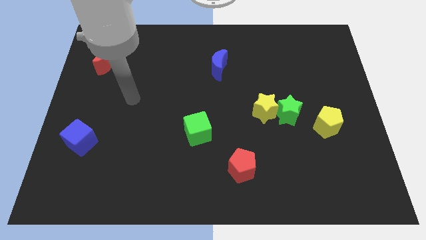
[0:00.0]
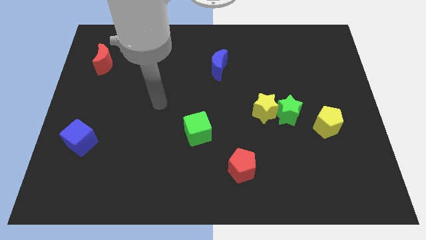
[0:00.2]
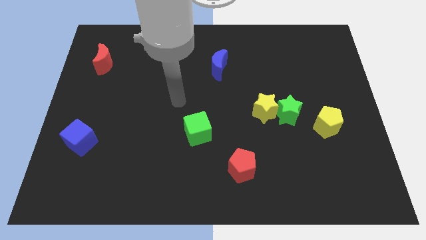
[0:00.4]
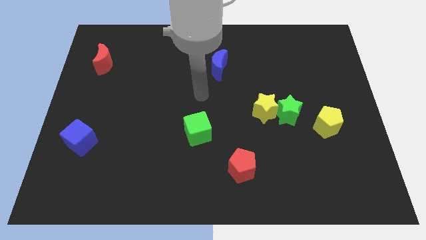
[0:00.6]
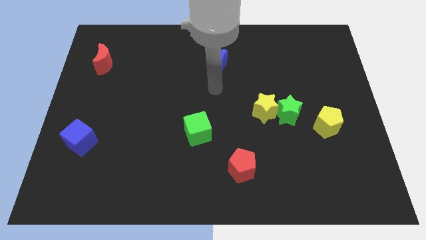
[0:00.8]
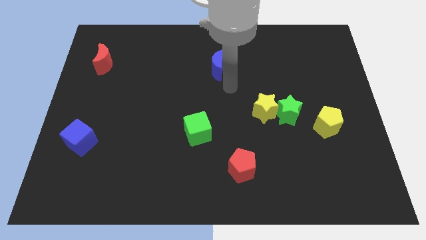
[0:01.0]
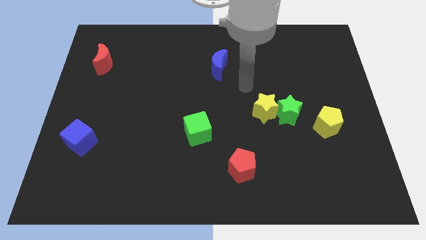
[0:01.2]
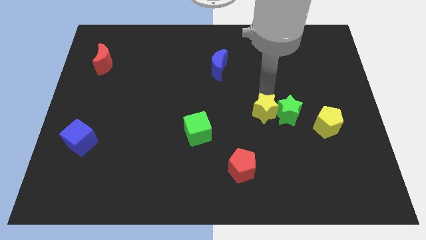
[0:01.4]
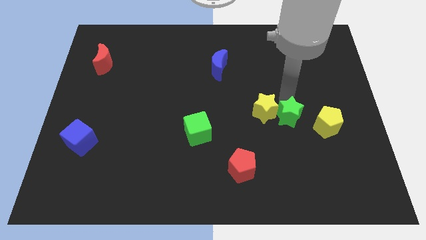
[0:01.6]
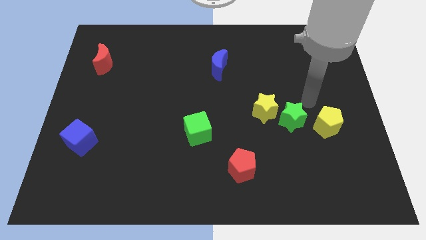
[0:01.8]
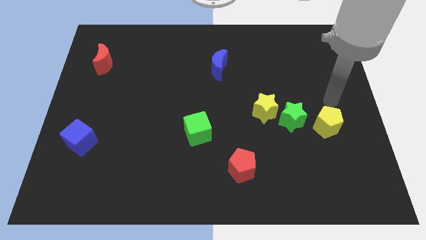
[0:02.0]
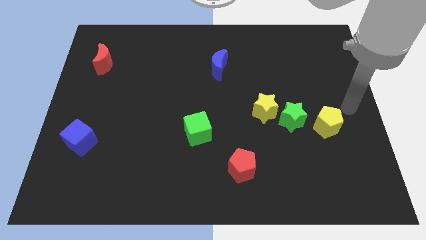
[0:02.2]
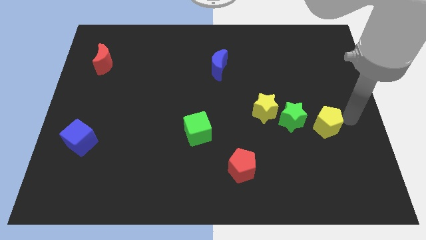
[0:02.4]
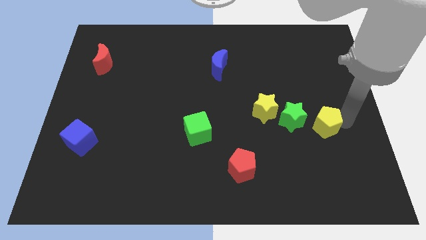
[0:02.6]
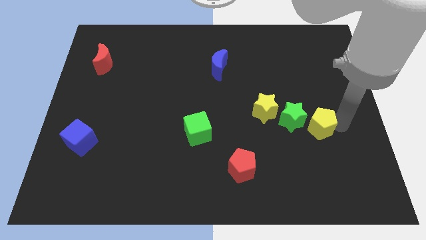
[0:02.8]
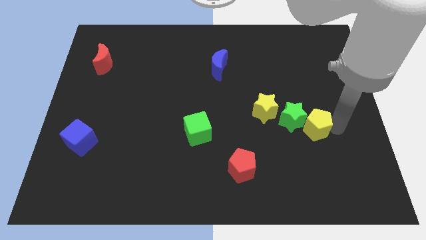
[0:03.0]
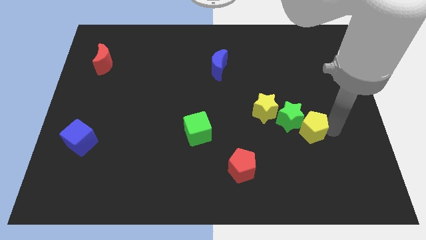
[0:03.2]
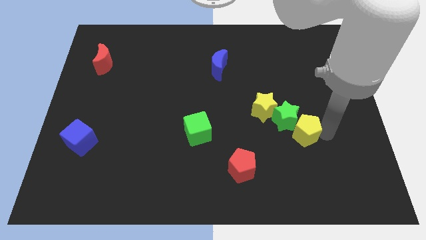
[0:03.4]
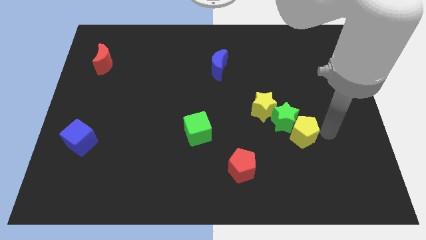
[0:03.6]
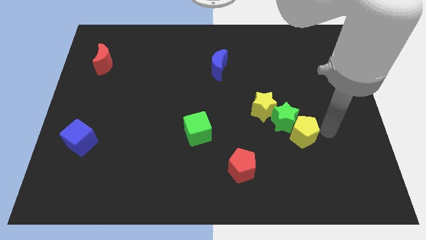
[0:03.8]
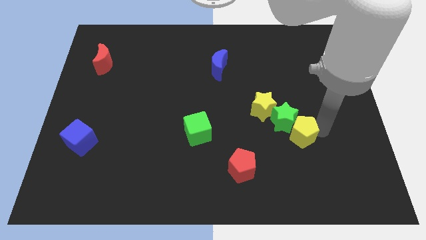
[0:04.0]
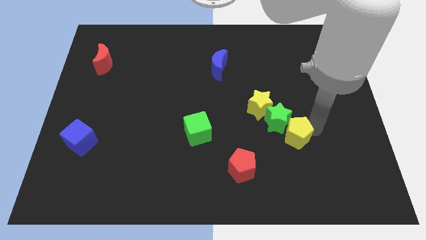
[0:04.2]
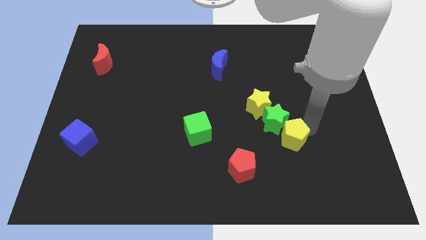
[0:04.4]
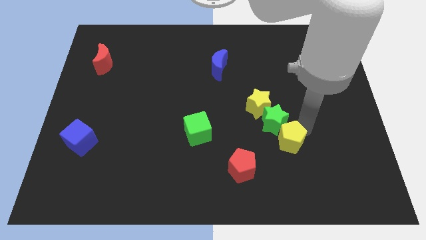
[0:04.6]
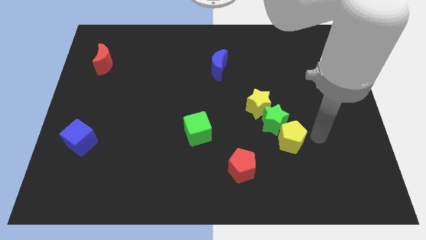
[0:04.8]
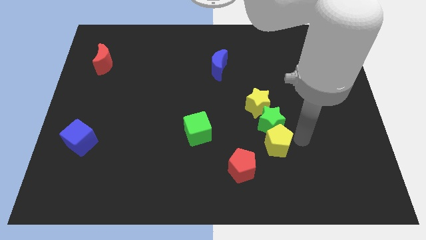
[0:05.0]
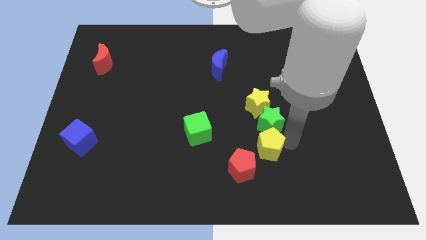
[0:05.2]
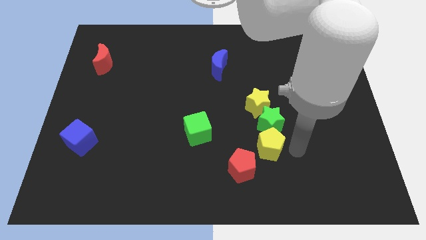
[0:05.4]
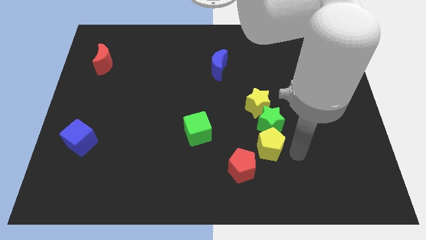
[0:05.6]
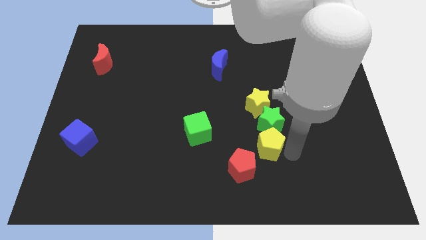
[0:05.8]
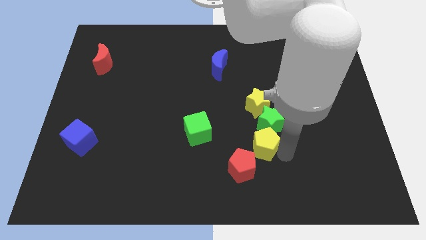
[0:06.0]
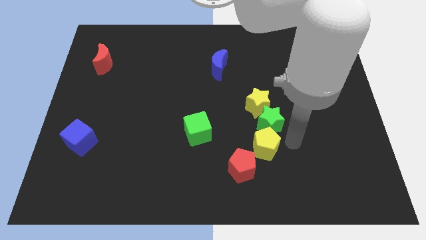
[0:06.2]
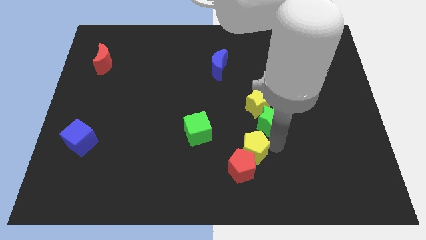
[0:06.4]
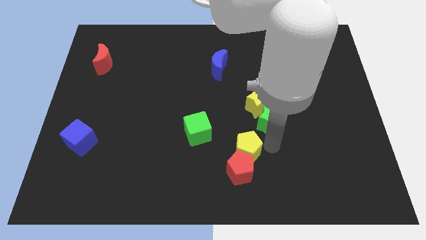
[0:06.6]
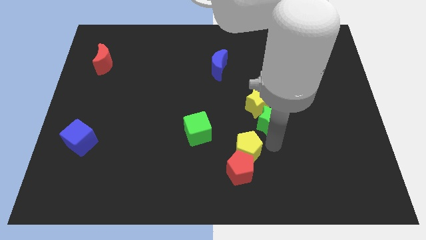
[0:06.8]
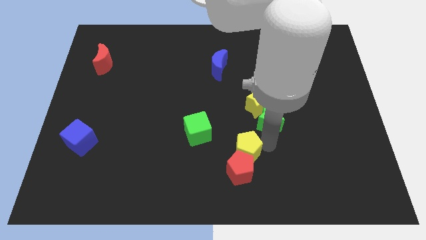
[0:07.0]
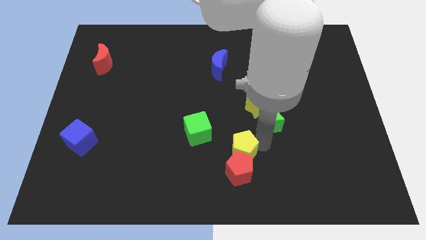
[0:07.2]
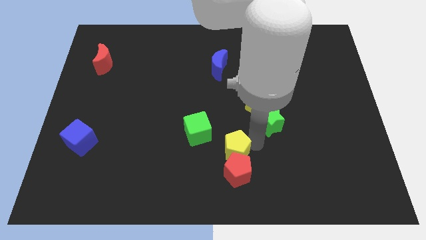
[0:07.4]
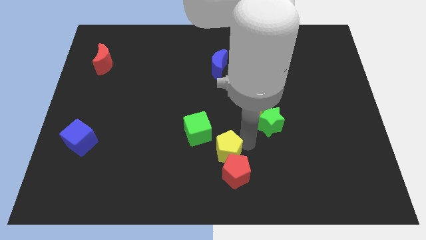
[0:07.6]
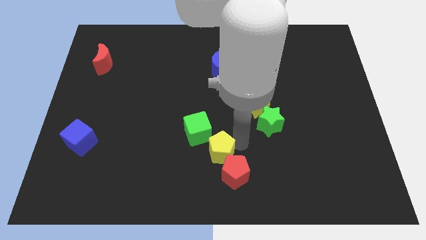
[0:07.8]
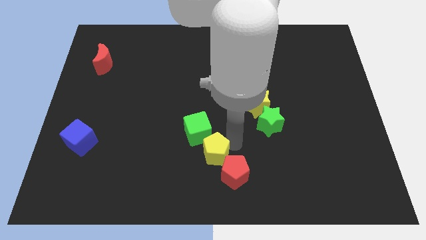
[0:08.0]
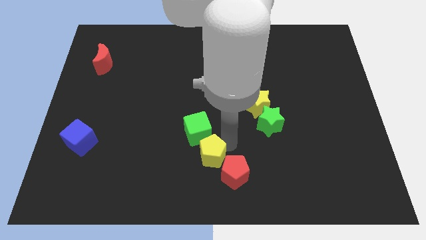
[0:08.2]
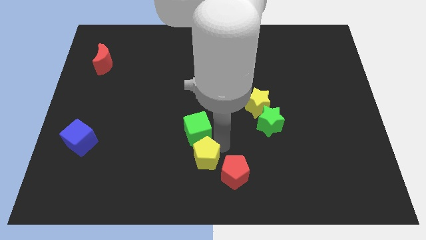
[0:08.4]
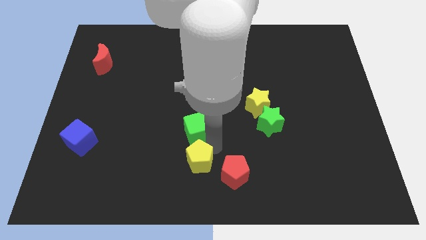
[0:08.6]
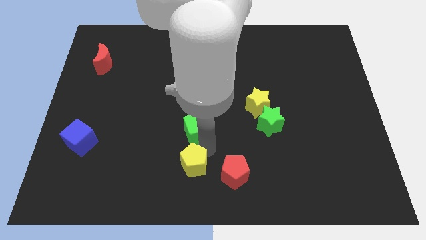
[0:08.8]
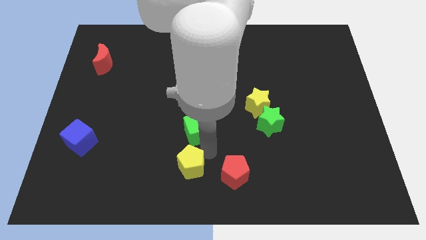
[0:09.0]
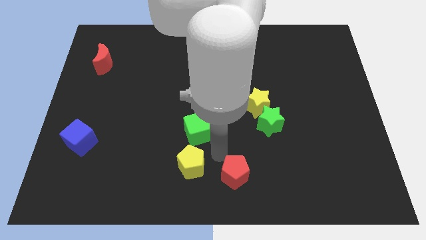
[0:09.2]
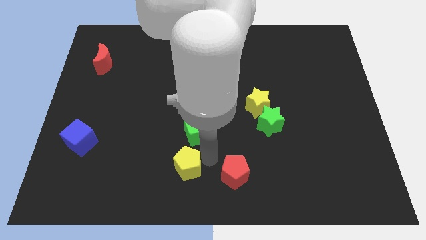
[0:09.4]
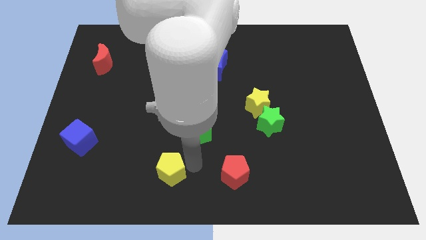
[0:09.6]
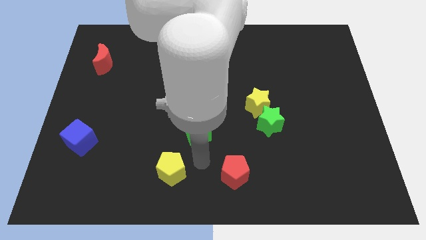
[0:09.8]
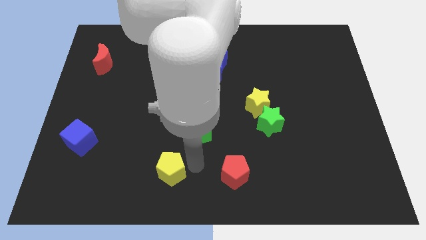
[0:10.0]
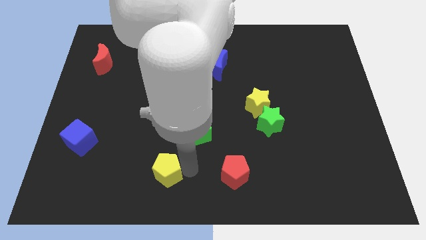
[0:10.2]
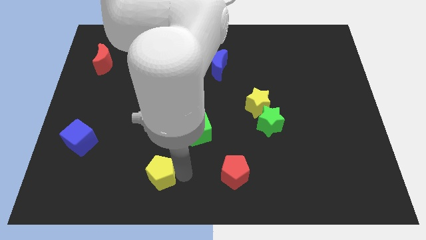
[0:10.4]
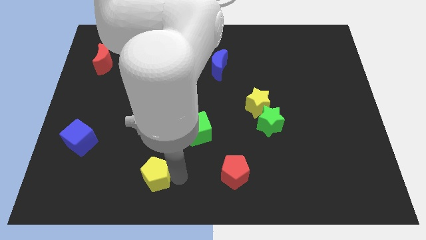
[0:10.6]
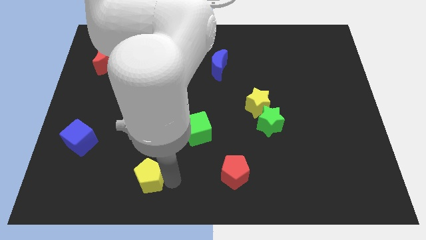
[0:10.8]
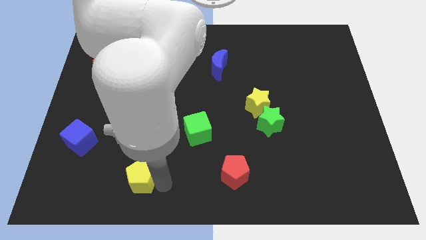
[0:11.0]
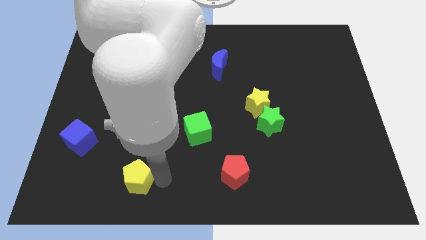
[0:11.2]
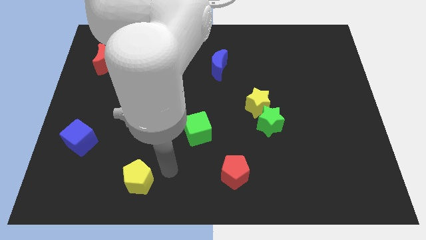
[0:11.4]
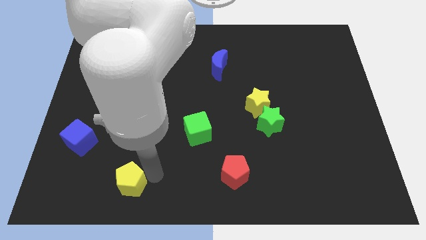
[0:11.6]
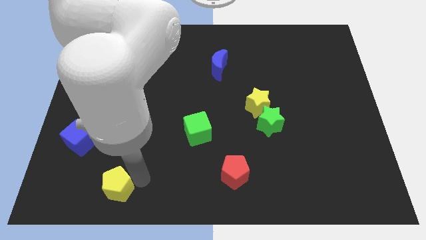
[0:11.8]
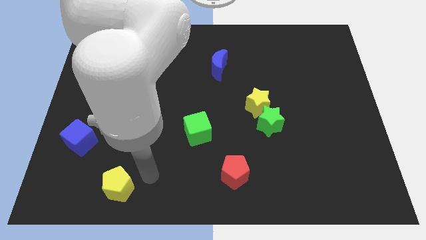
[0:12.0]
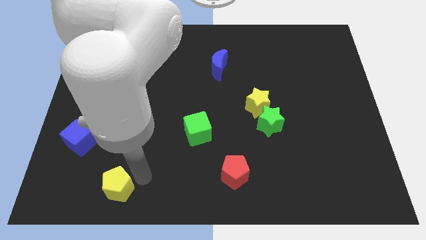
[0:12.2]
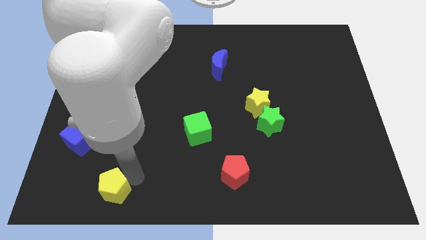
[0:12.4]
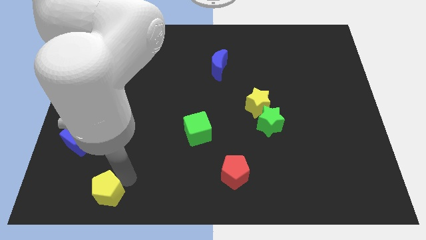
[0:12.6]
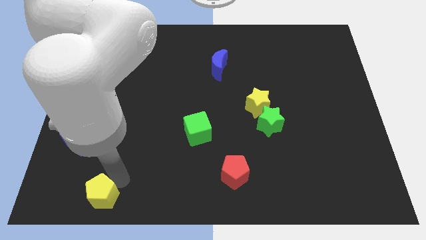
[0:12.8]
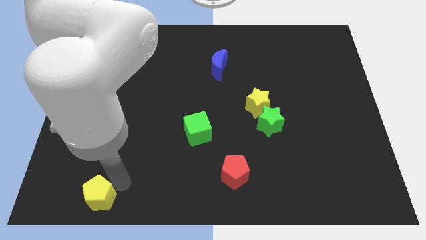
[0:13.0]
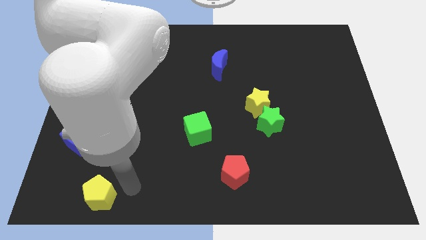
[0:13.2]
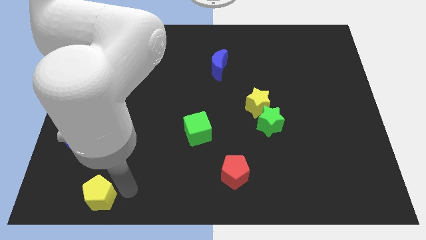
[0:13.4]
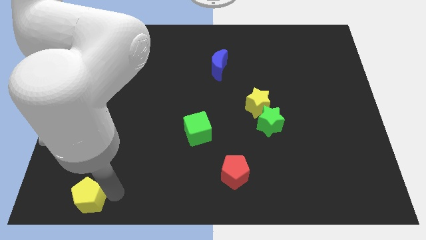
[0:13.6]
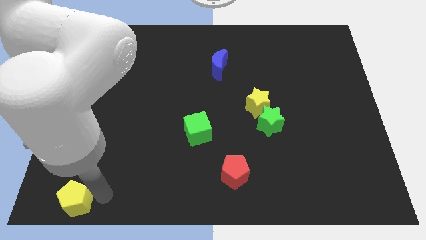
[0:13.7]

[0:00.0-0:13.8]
move the yellow pentagon to the lower left corner
